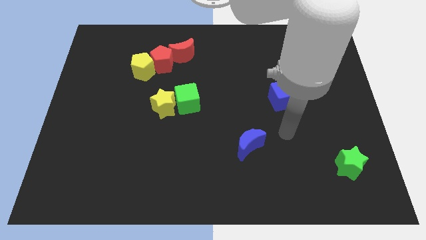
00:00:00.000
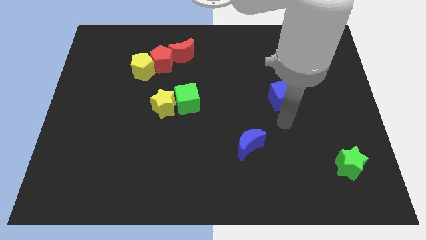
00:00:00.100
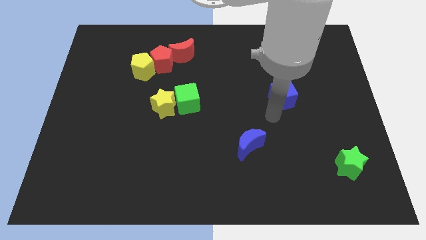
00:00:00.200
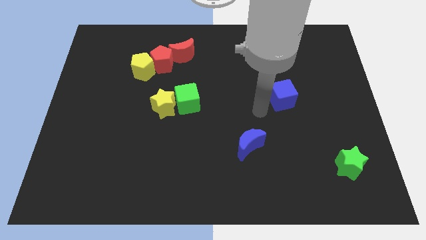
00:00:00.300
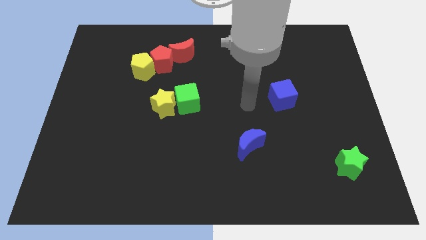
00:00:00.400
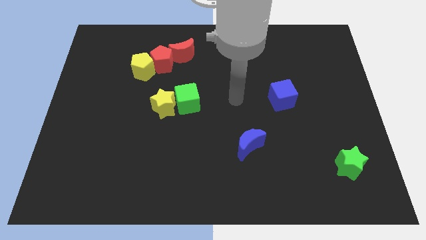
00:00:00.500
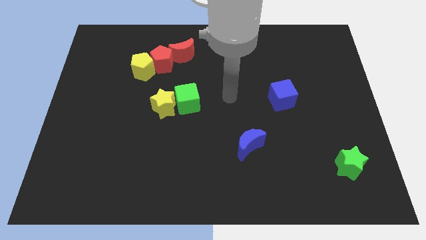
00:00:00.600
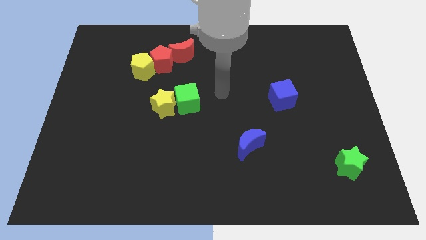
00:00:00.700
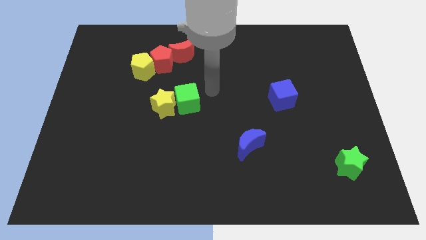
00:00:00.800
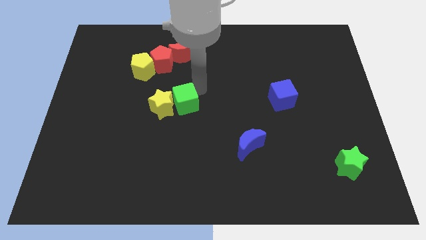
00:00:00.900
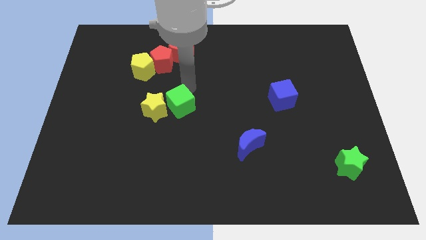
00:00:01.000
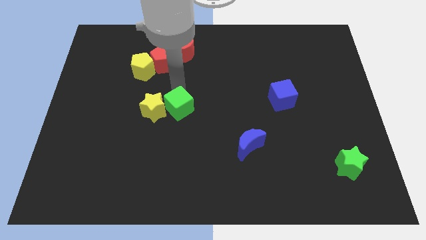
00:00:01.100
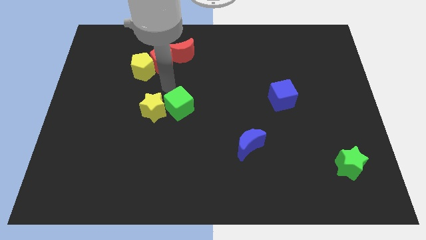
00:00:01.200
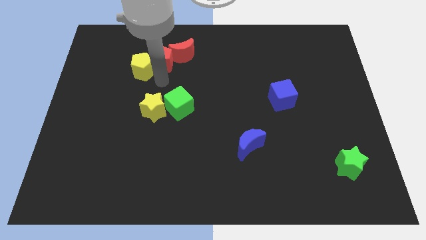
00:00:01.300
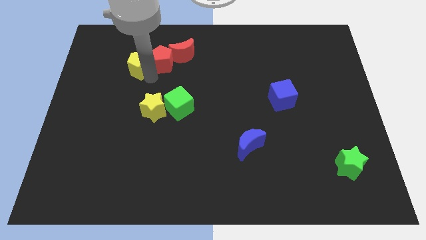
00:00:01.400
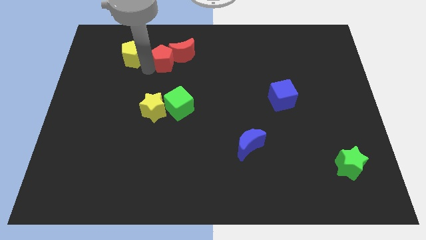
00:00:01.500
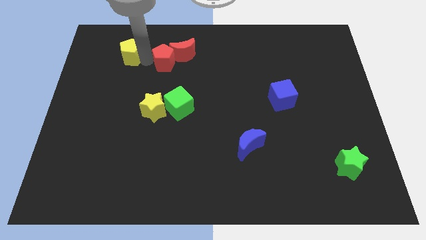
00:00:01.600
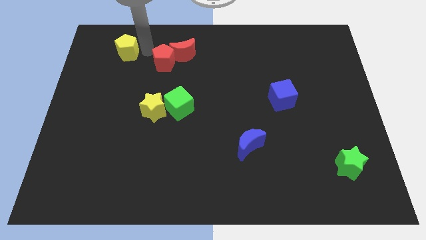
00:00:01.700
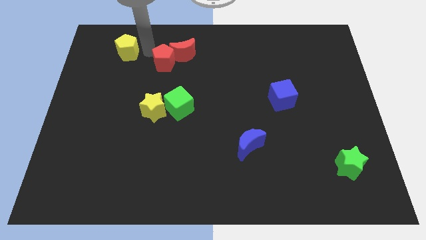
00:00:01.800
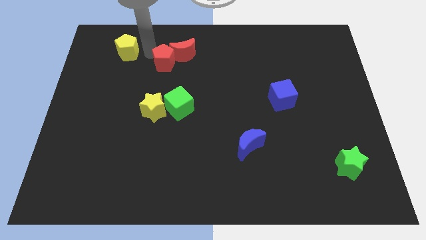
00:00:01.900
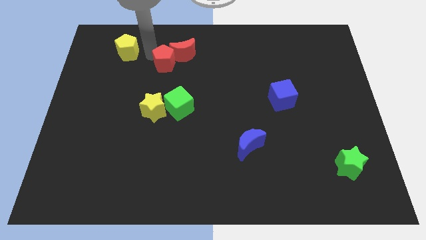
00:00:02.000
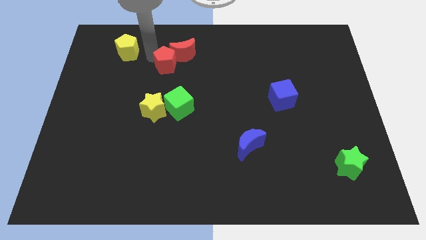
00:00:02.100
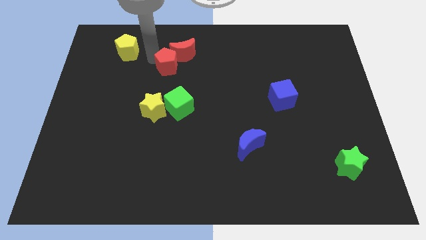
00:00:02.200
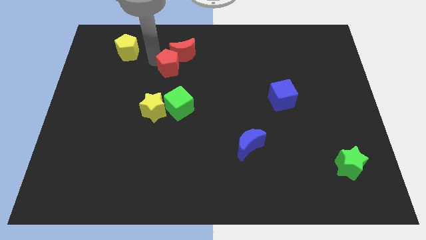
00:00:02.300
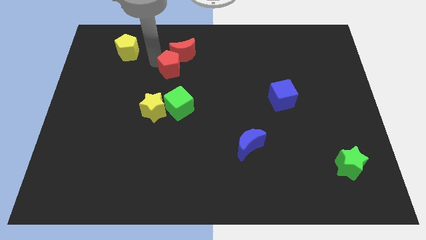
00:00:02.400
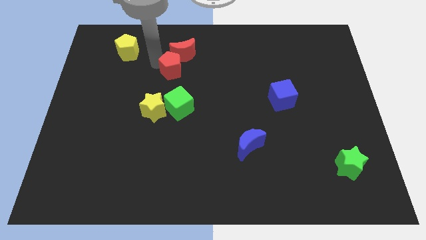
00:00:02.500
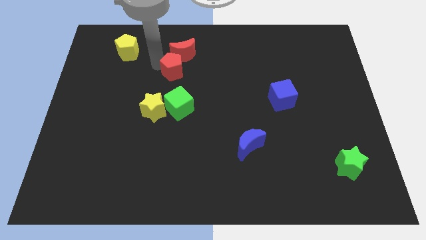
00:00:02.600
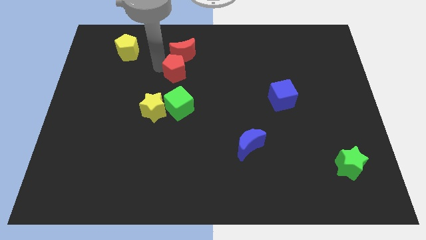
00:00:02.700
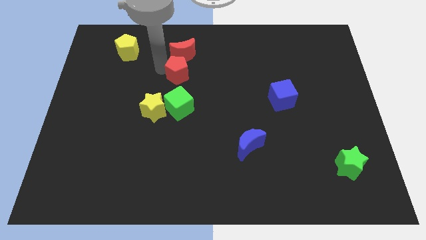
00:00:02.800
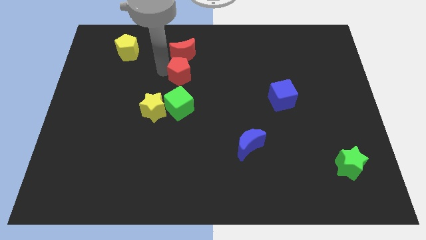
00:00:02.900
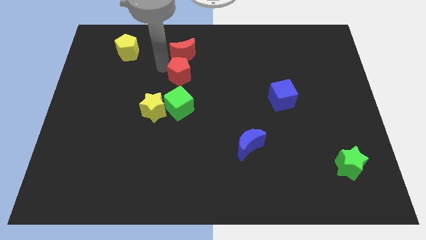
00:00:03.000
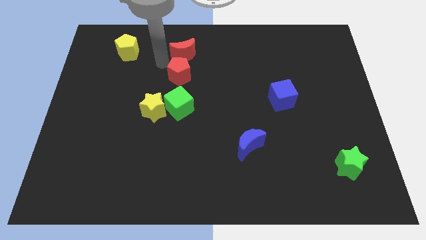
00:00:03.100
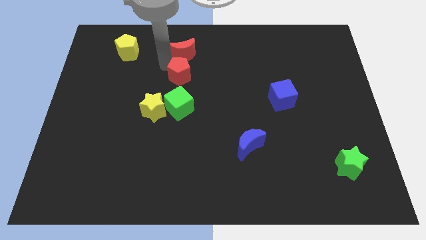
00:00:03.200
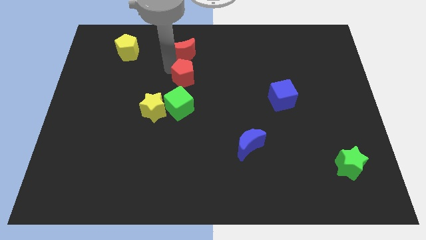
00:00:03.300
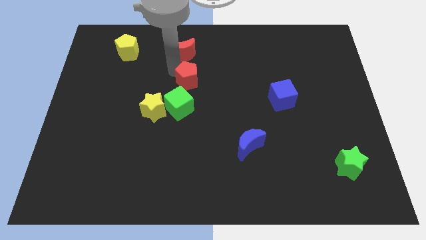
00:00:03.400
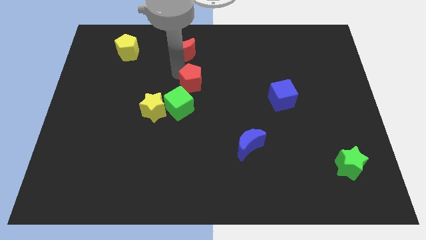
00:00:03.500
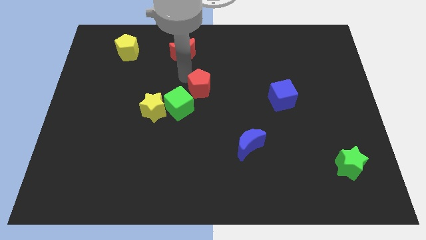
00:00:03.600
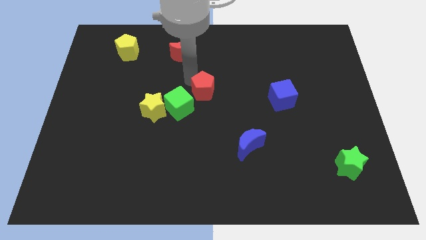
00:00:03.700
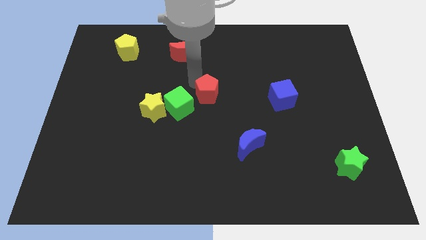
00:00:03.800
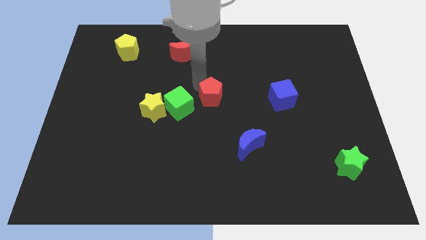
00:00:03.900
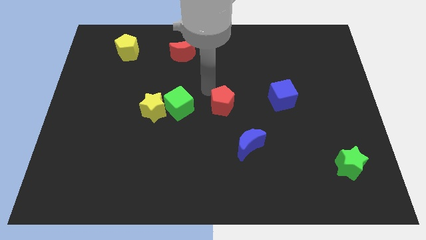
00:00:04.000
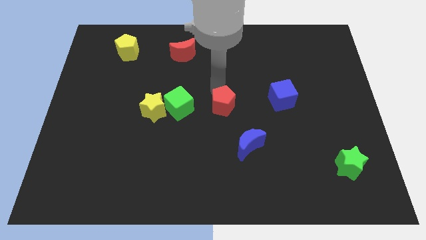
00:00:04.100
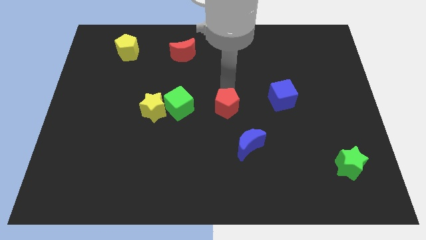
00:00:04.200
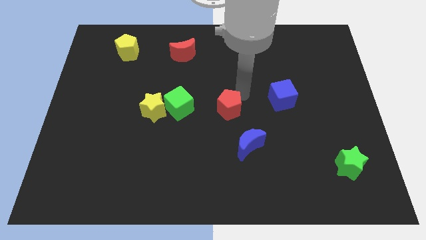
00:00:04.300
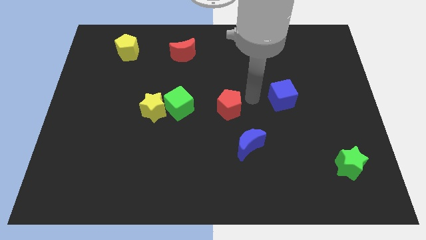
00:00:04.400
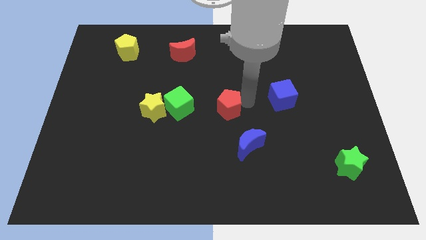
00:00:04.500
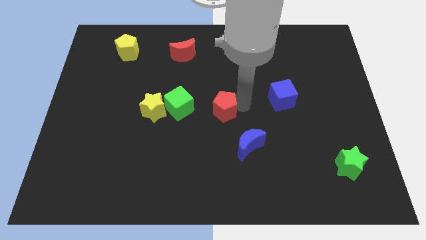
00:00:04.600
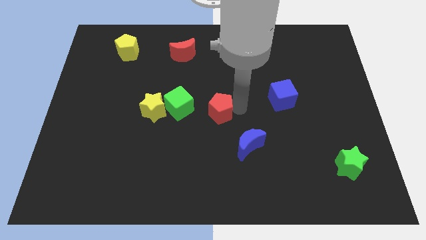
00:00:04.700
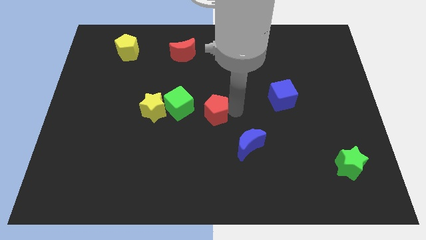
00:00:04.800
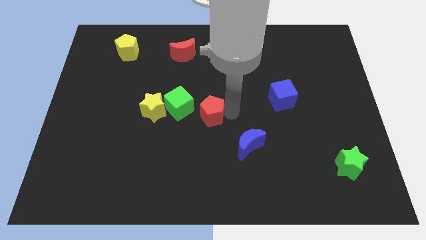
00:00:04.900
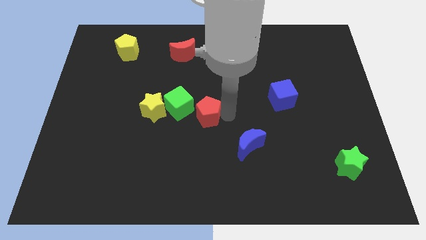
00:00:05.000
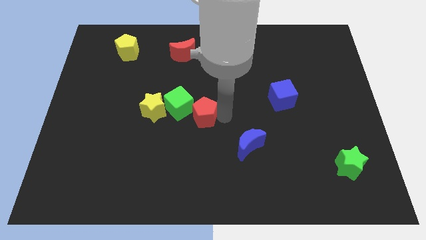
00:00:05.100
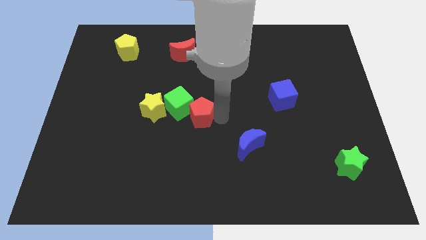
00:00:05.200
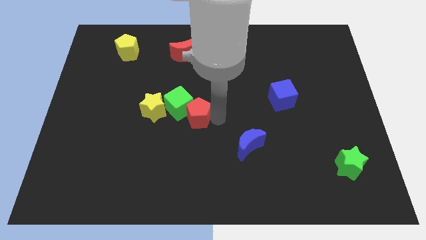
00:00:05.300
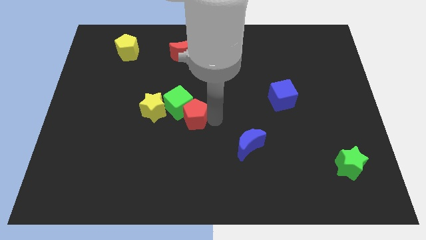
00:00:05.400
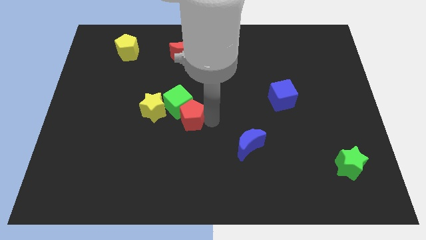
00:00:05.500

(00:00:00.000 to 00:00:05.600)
slide the red pentagon to the bottom right of the yellow star

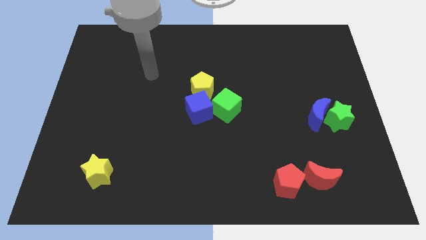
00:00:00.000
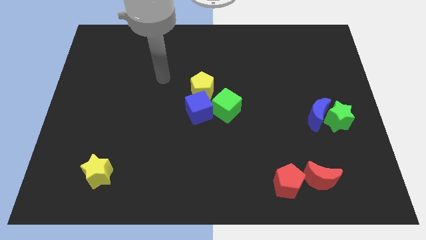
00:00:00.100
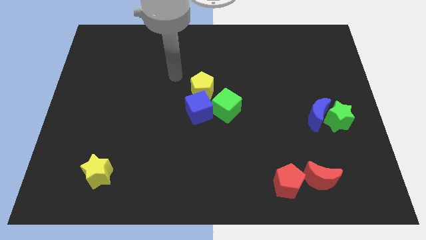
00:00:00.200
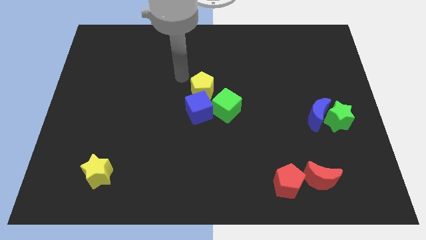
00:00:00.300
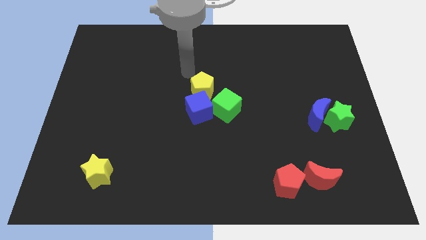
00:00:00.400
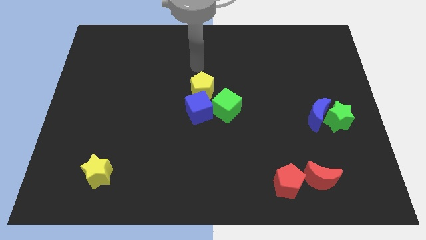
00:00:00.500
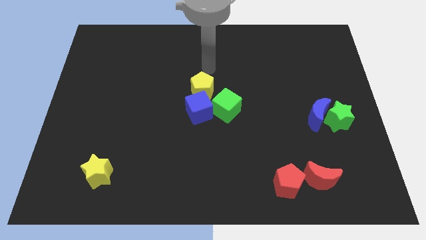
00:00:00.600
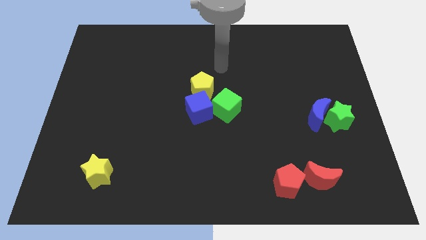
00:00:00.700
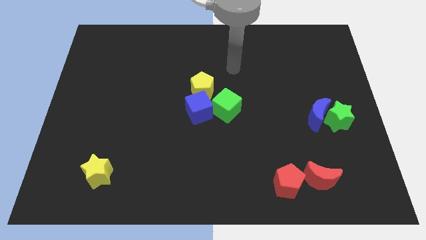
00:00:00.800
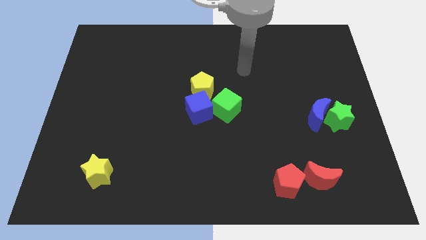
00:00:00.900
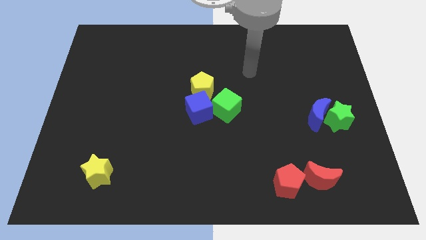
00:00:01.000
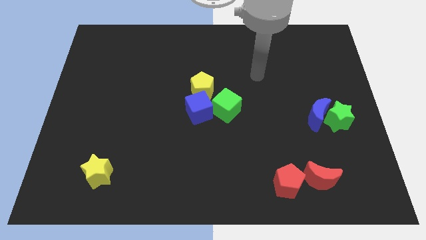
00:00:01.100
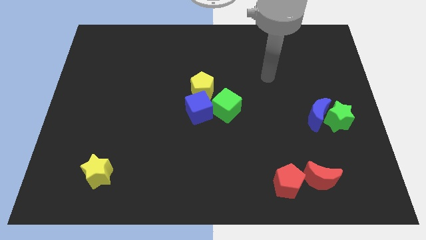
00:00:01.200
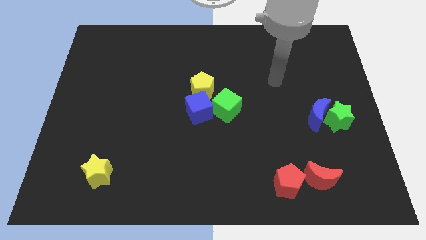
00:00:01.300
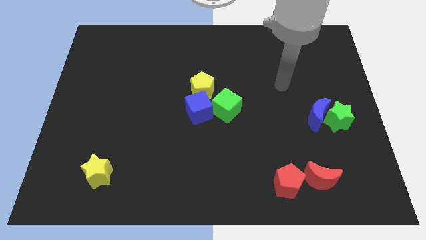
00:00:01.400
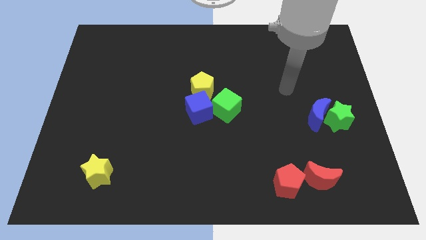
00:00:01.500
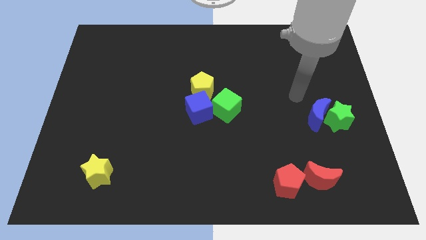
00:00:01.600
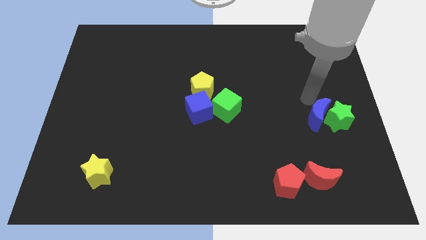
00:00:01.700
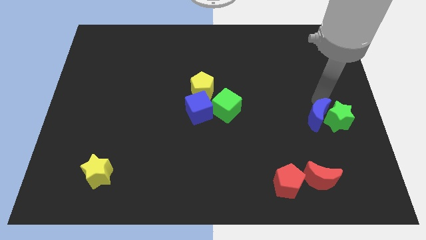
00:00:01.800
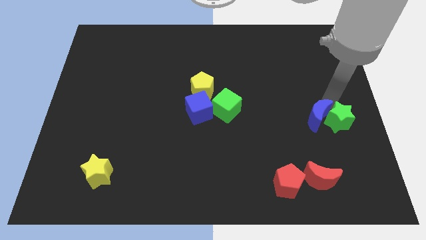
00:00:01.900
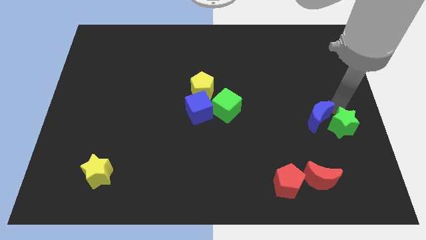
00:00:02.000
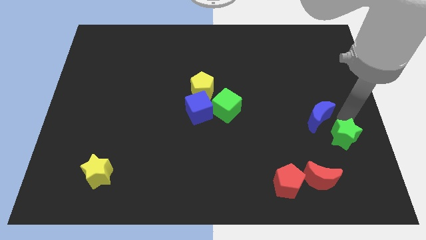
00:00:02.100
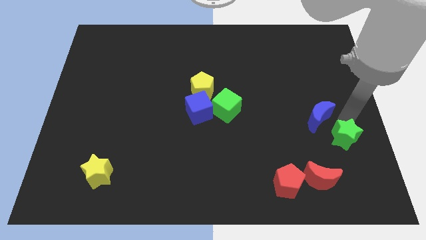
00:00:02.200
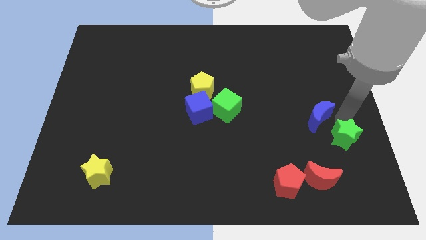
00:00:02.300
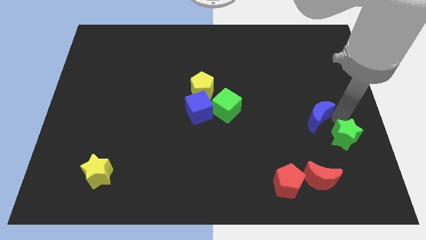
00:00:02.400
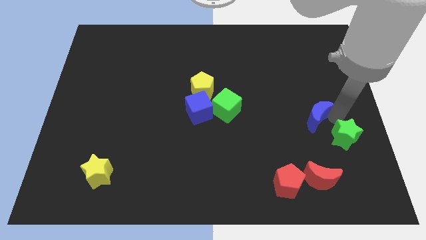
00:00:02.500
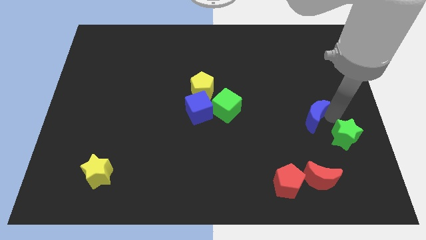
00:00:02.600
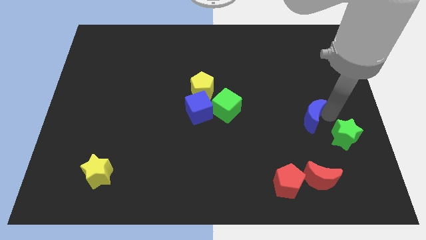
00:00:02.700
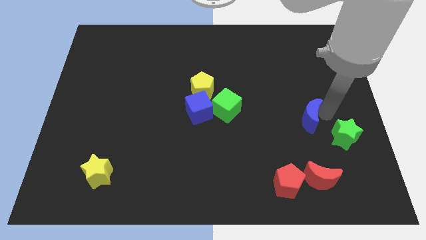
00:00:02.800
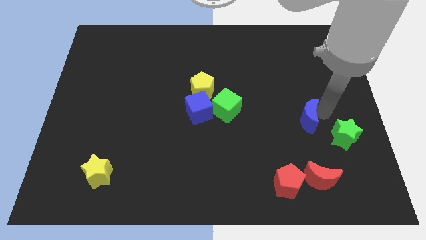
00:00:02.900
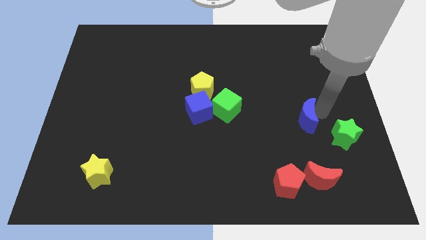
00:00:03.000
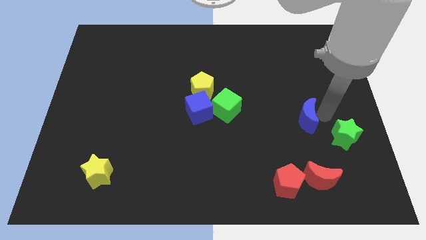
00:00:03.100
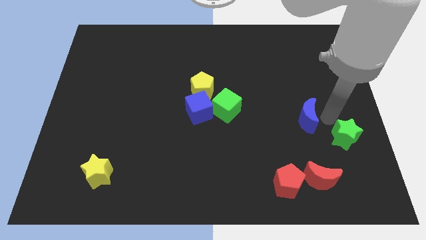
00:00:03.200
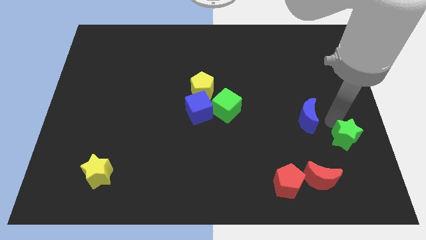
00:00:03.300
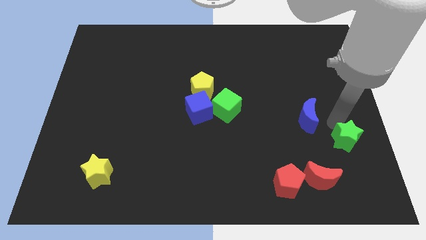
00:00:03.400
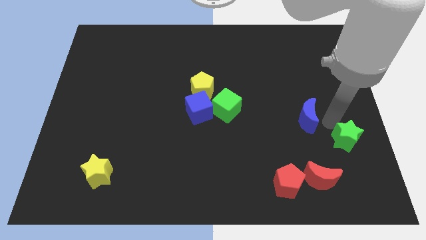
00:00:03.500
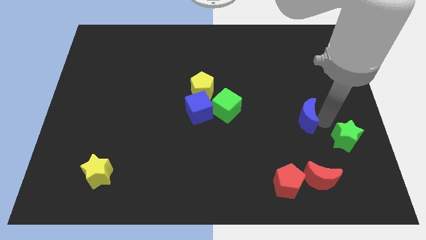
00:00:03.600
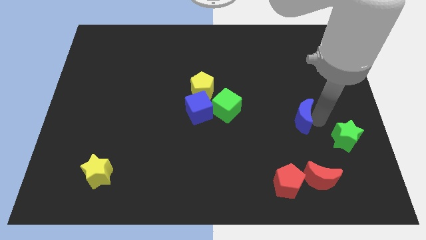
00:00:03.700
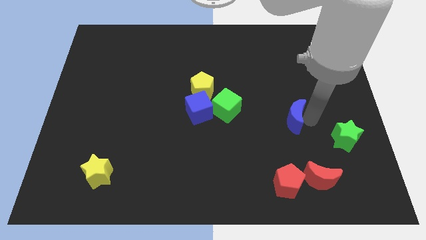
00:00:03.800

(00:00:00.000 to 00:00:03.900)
push the blue moon to the right of the green cube
